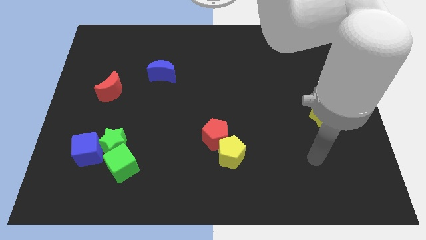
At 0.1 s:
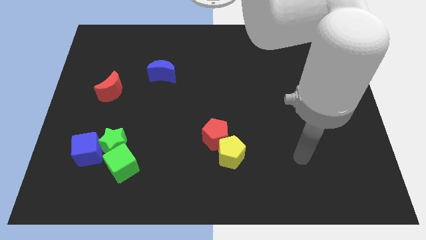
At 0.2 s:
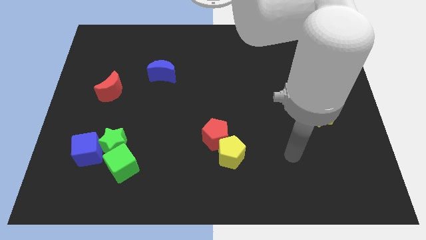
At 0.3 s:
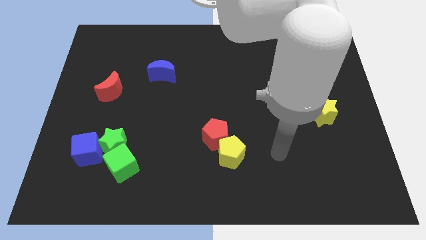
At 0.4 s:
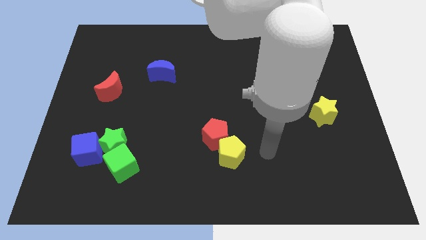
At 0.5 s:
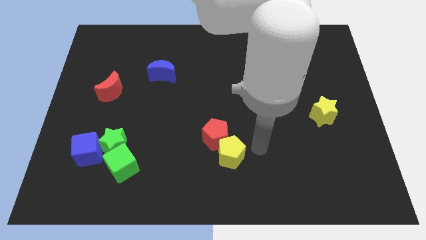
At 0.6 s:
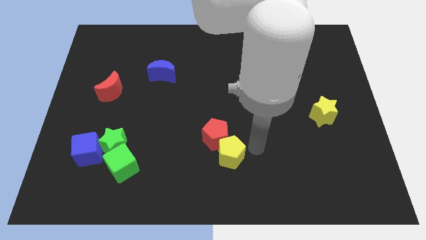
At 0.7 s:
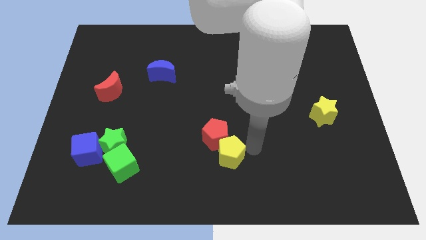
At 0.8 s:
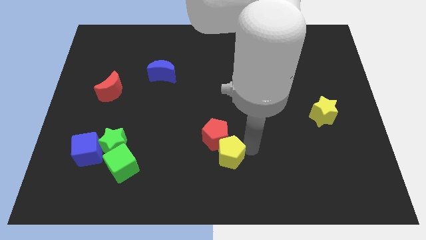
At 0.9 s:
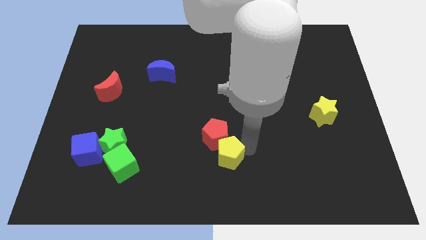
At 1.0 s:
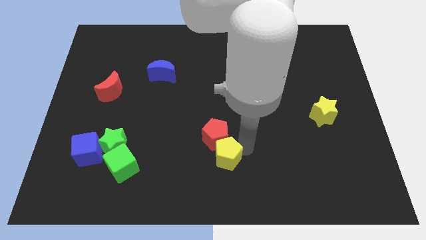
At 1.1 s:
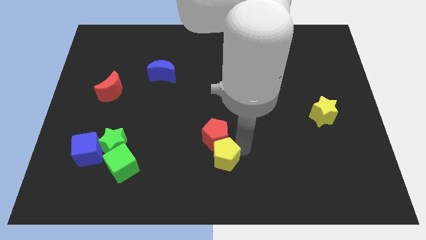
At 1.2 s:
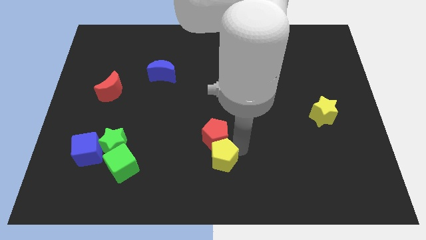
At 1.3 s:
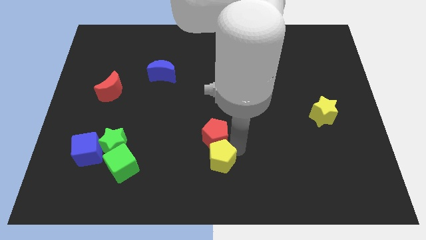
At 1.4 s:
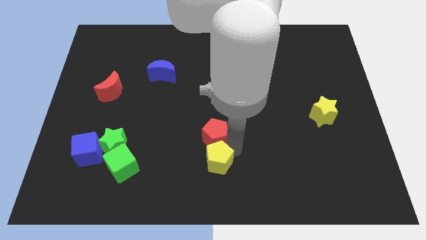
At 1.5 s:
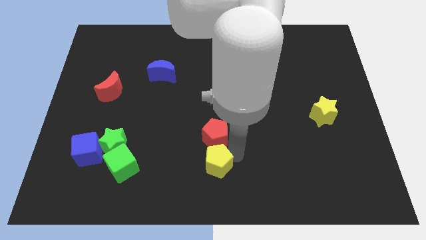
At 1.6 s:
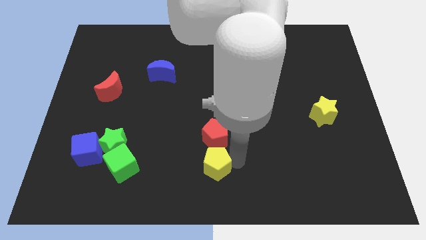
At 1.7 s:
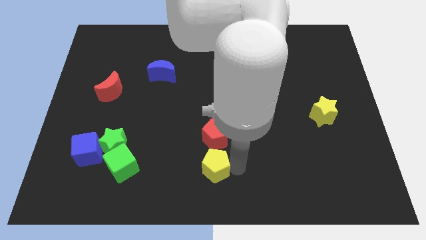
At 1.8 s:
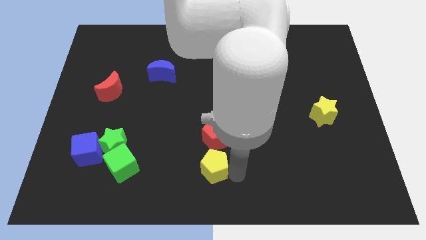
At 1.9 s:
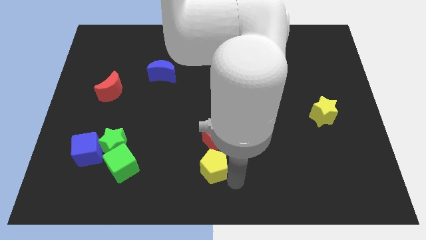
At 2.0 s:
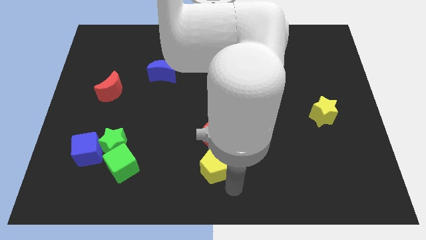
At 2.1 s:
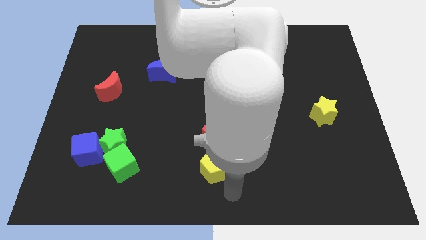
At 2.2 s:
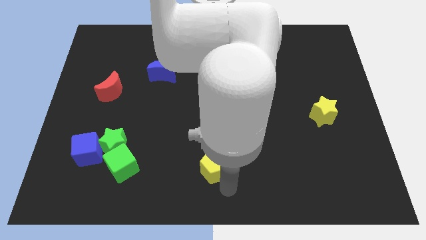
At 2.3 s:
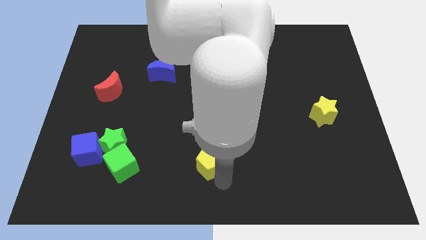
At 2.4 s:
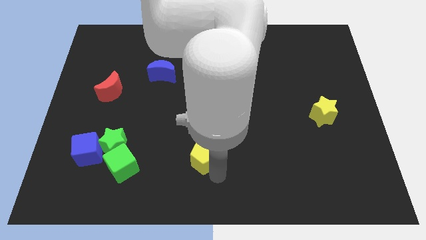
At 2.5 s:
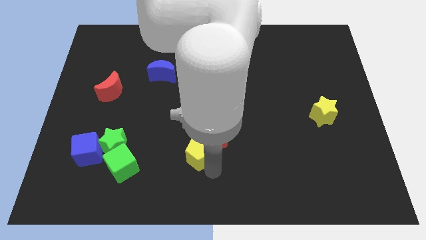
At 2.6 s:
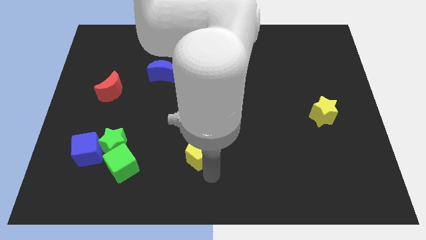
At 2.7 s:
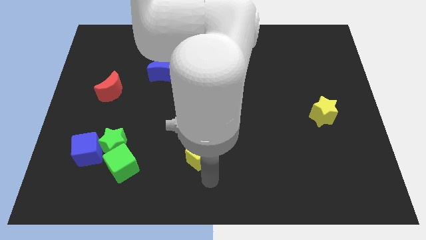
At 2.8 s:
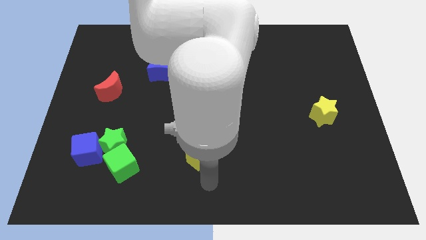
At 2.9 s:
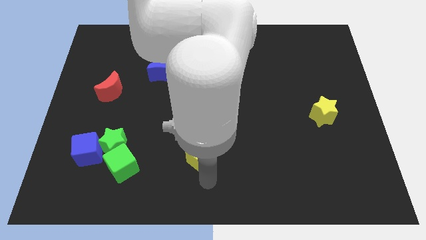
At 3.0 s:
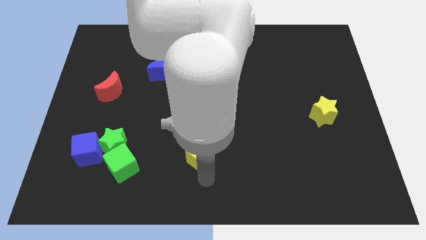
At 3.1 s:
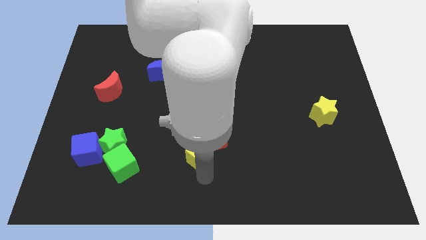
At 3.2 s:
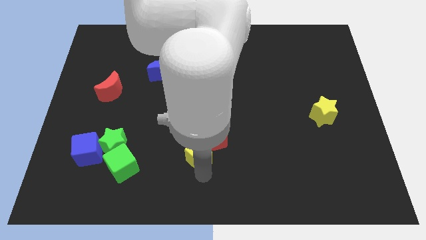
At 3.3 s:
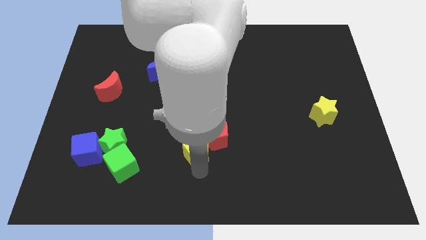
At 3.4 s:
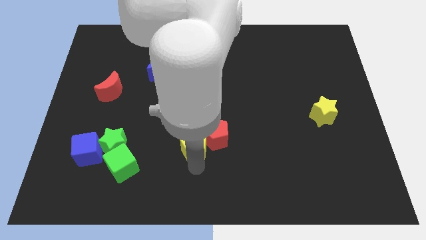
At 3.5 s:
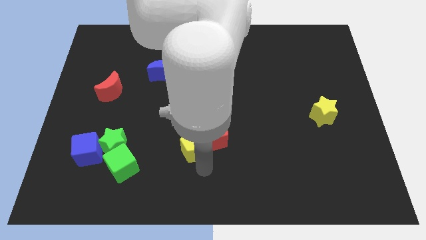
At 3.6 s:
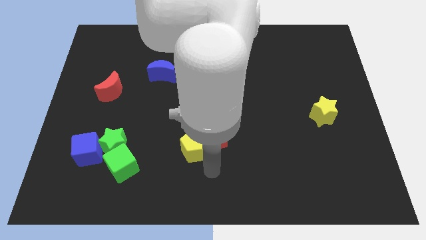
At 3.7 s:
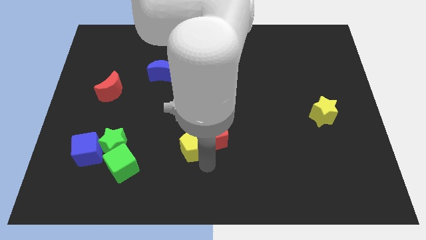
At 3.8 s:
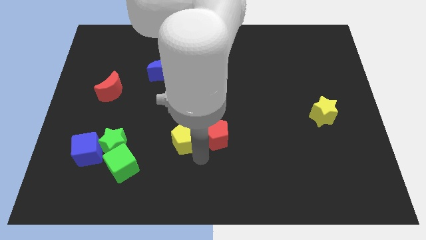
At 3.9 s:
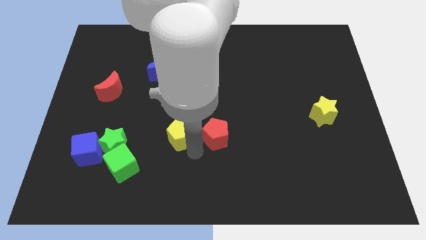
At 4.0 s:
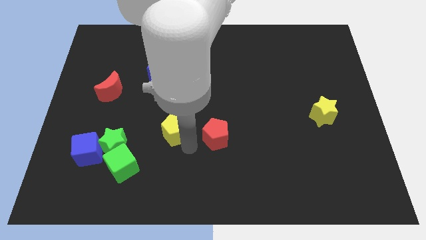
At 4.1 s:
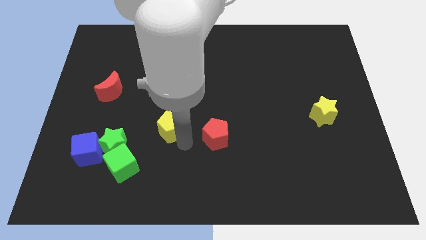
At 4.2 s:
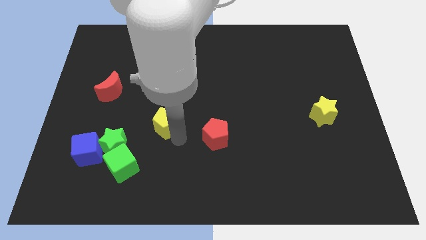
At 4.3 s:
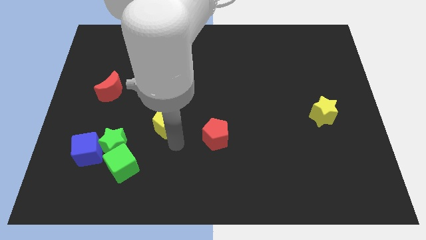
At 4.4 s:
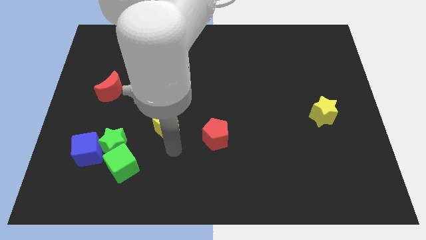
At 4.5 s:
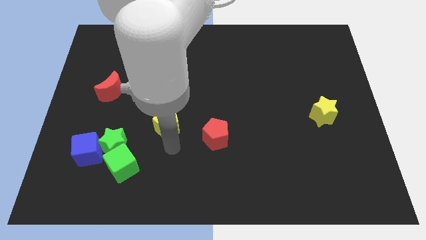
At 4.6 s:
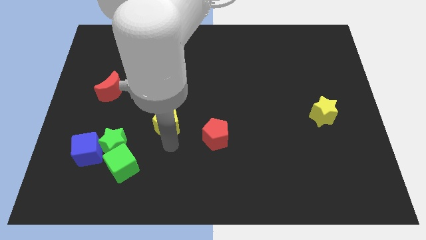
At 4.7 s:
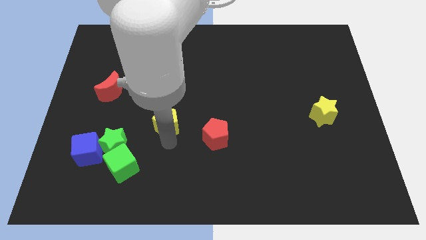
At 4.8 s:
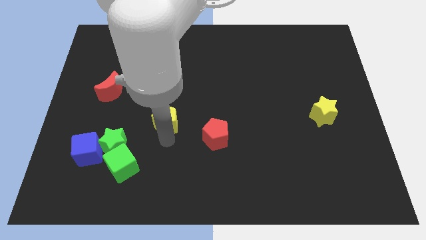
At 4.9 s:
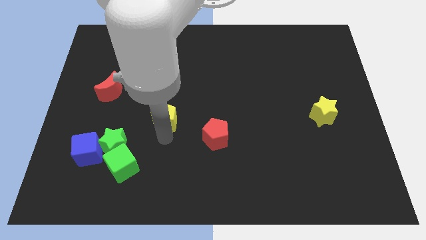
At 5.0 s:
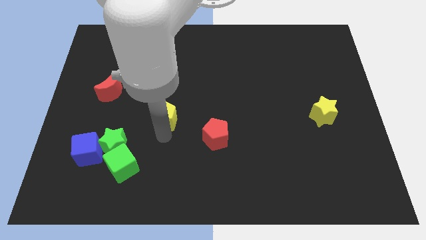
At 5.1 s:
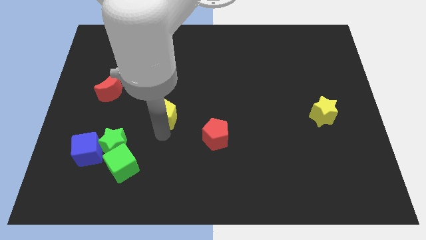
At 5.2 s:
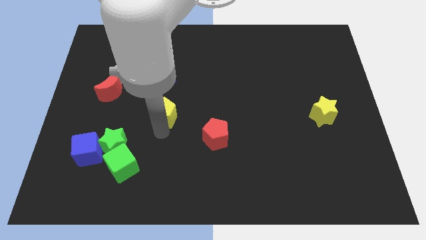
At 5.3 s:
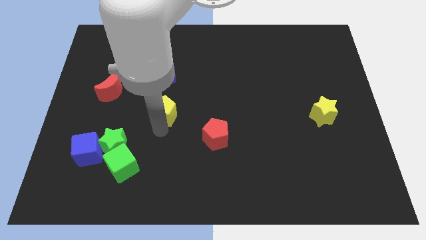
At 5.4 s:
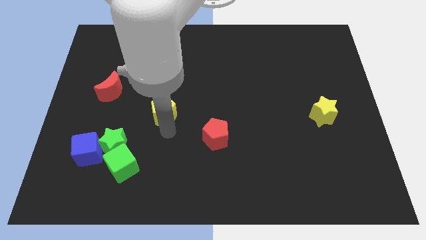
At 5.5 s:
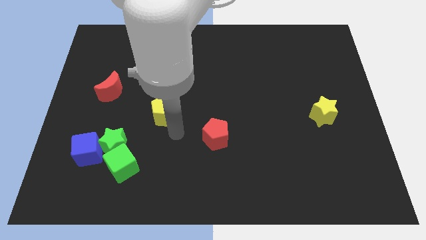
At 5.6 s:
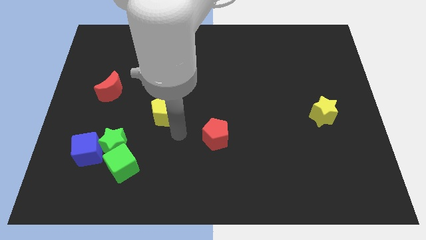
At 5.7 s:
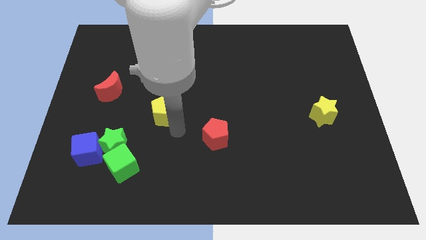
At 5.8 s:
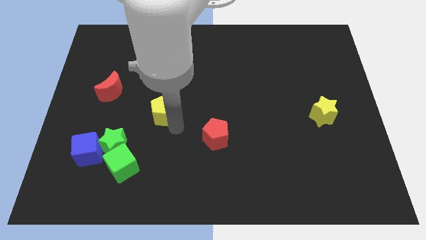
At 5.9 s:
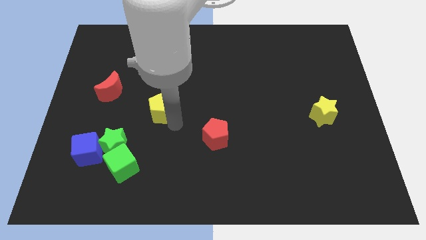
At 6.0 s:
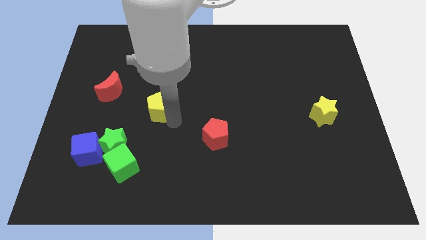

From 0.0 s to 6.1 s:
push the yellow pentagon upwards and left

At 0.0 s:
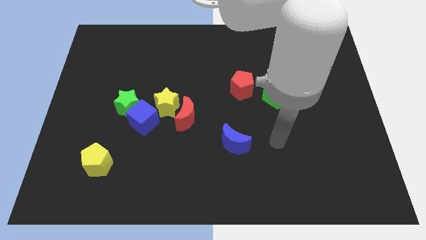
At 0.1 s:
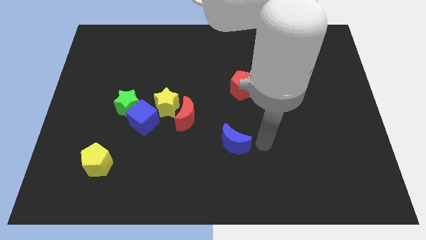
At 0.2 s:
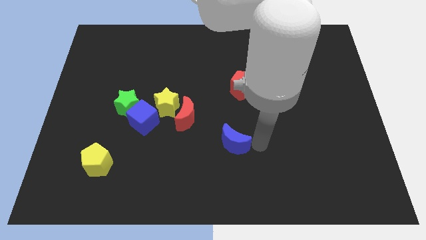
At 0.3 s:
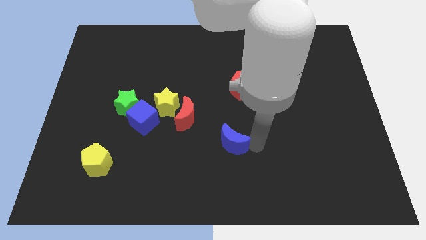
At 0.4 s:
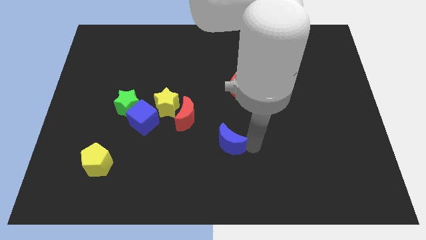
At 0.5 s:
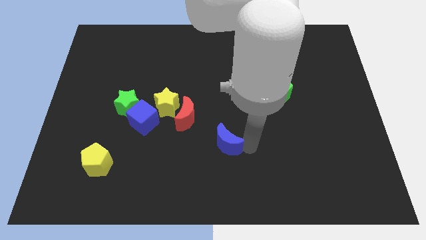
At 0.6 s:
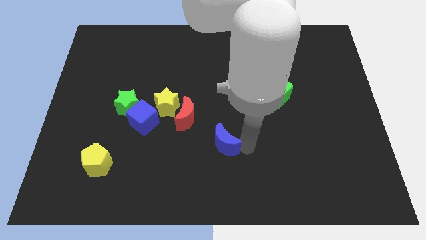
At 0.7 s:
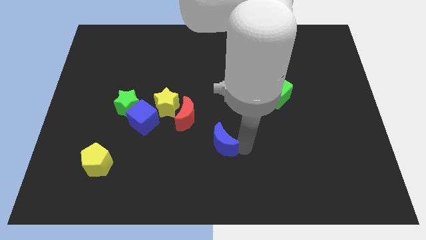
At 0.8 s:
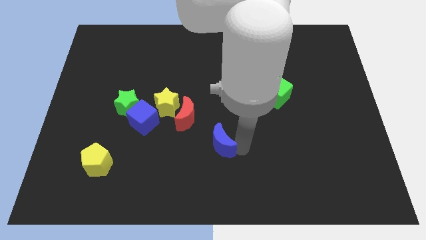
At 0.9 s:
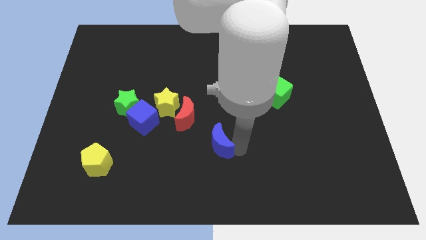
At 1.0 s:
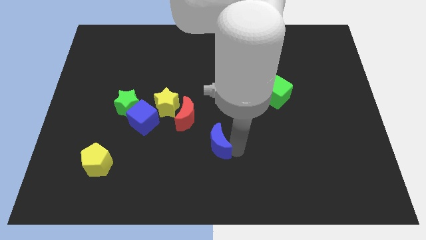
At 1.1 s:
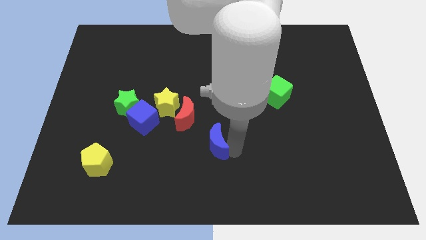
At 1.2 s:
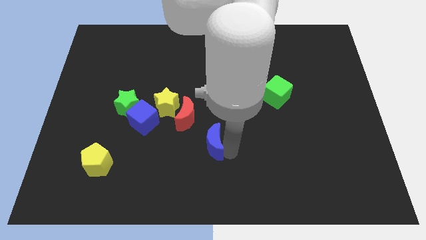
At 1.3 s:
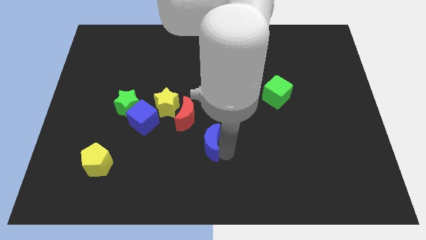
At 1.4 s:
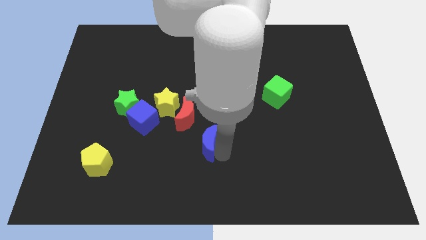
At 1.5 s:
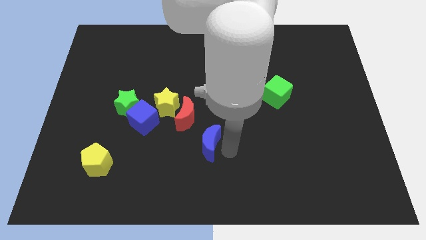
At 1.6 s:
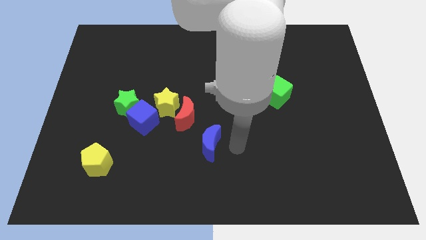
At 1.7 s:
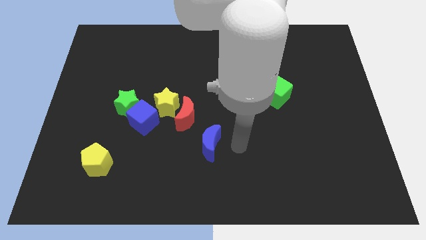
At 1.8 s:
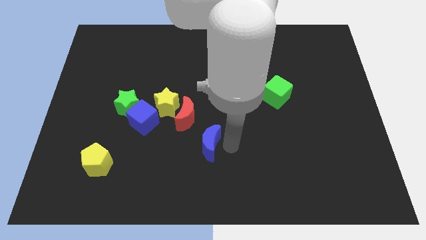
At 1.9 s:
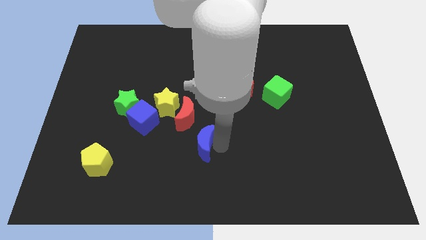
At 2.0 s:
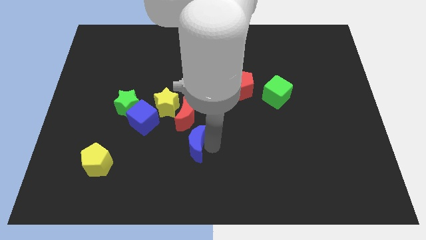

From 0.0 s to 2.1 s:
slightly move the blue moon left
